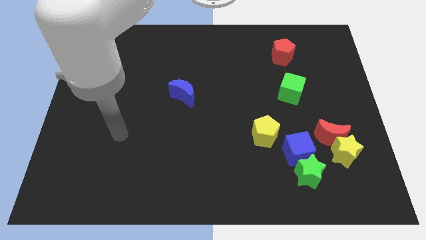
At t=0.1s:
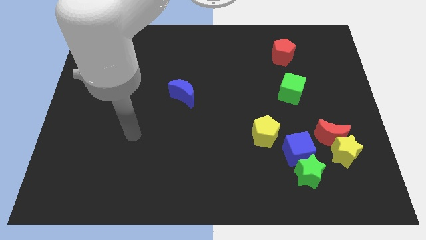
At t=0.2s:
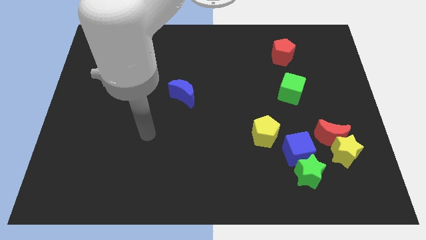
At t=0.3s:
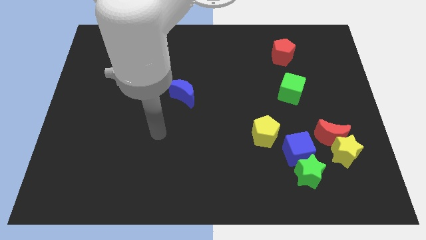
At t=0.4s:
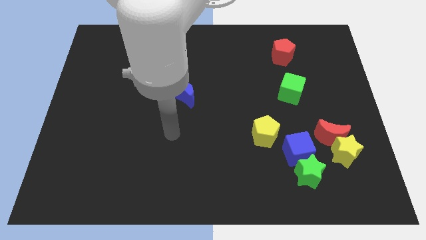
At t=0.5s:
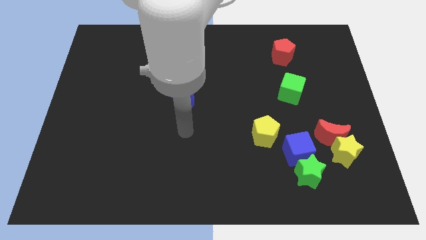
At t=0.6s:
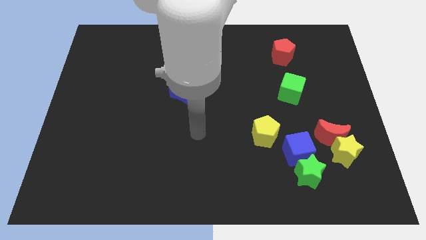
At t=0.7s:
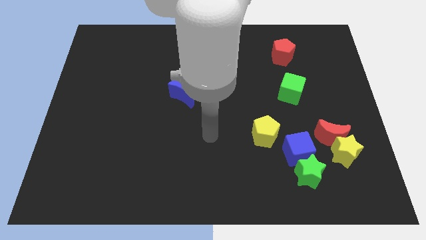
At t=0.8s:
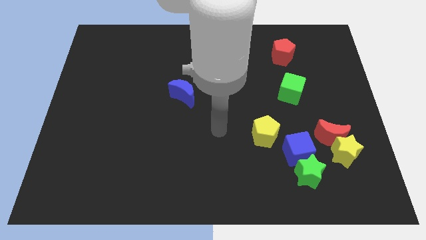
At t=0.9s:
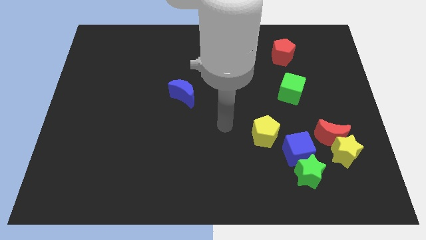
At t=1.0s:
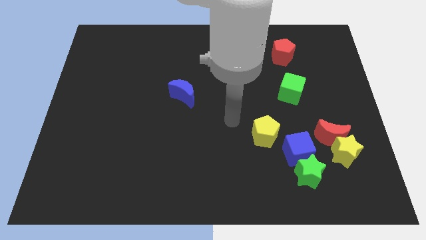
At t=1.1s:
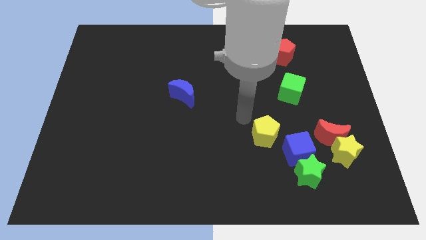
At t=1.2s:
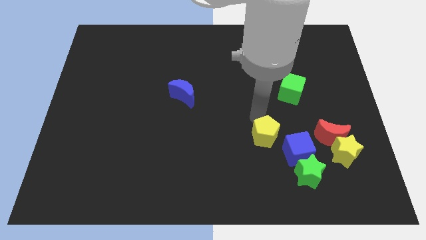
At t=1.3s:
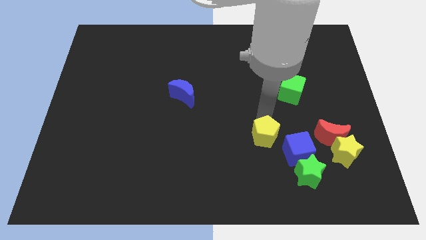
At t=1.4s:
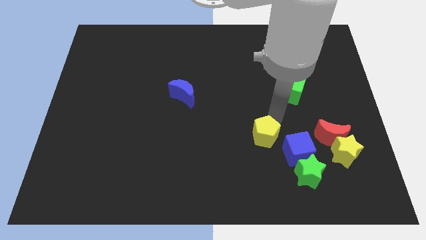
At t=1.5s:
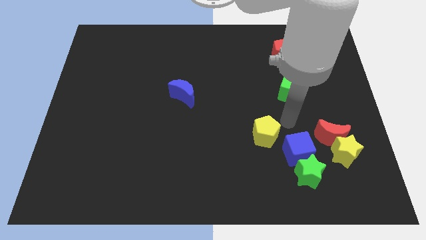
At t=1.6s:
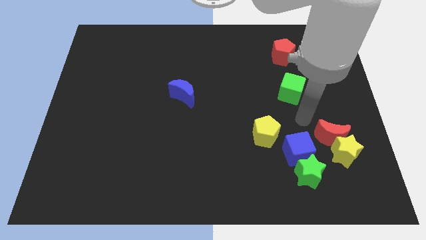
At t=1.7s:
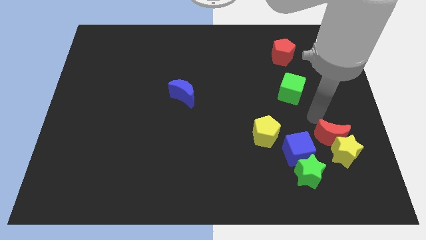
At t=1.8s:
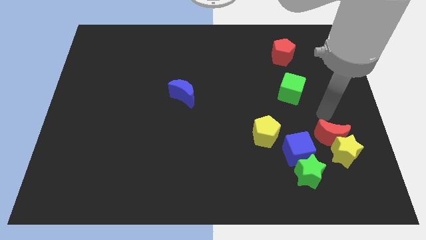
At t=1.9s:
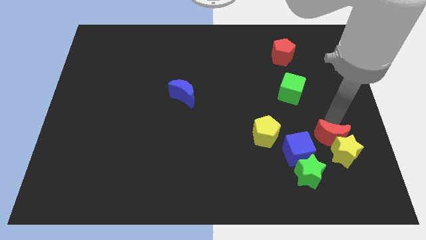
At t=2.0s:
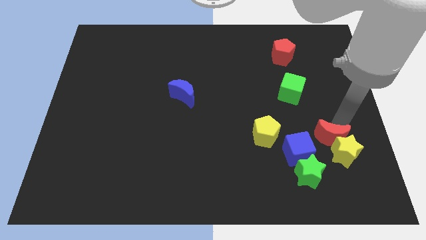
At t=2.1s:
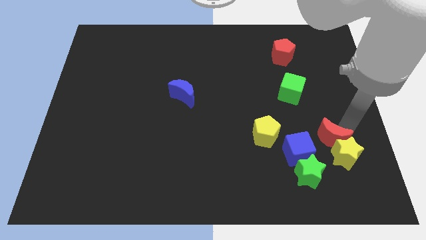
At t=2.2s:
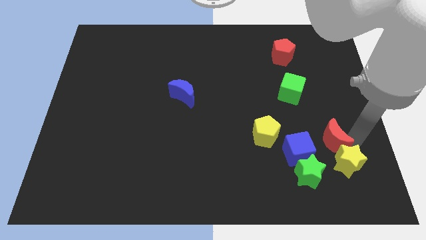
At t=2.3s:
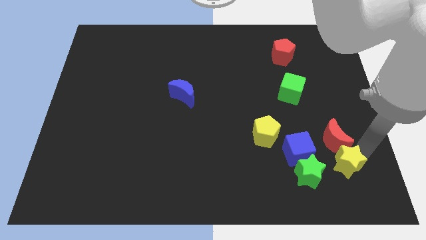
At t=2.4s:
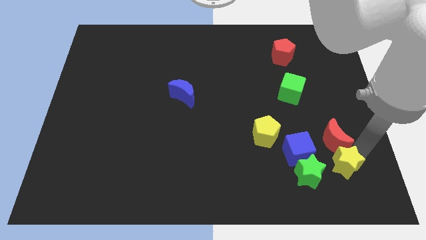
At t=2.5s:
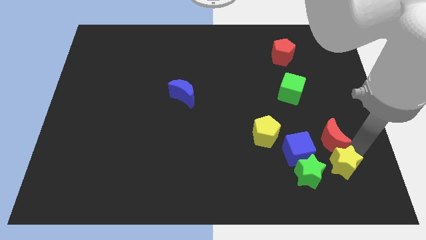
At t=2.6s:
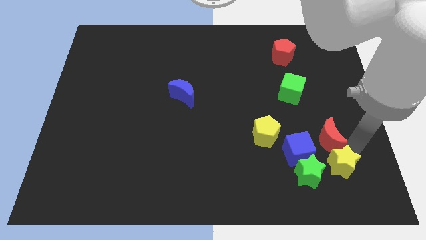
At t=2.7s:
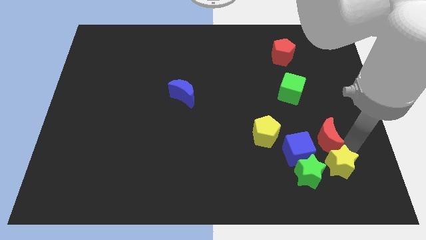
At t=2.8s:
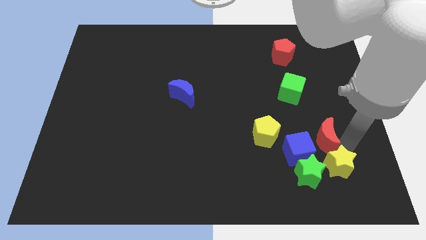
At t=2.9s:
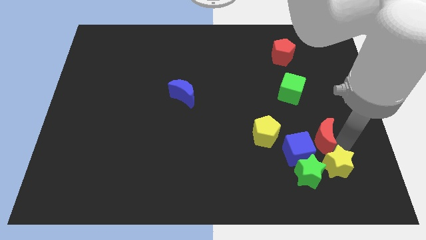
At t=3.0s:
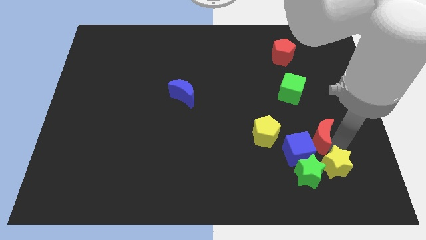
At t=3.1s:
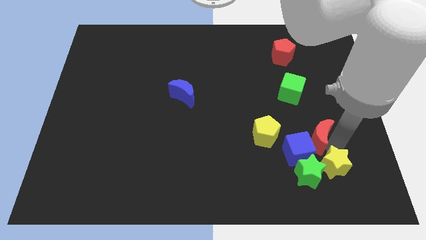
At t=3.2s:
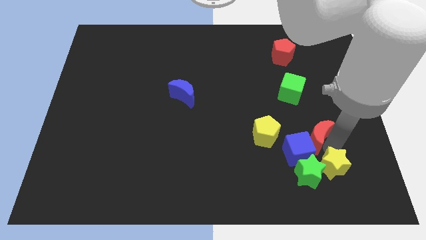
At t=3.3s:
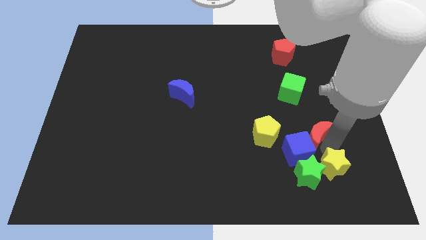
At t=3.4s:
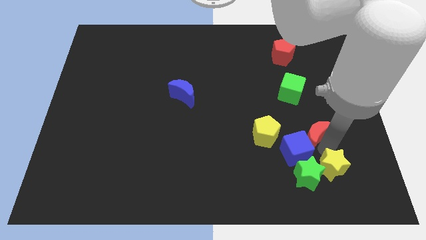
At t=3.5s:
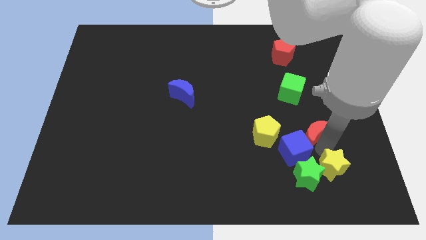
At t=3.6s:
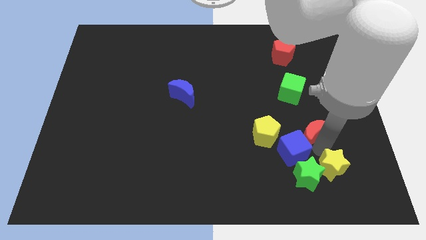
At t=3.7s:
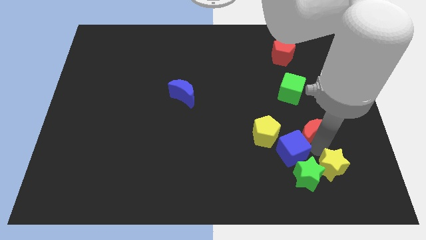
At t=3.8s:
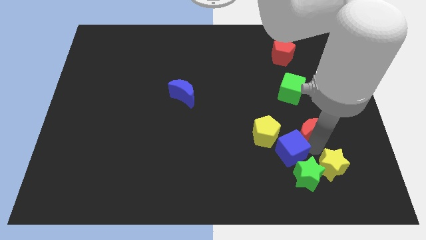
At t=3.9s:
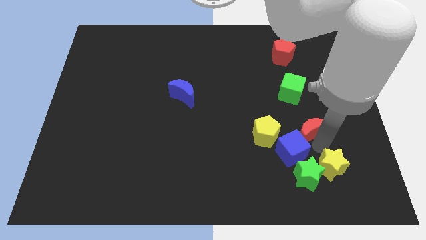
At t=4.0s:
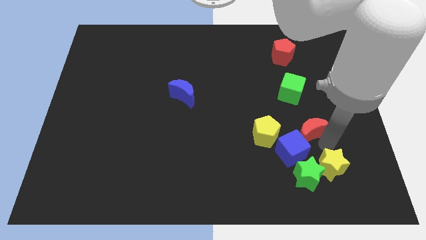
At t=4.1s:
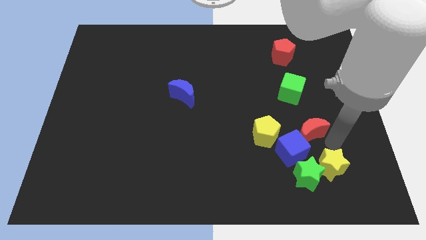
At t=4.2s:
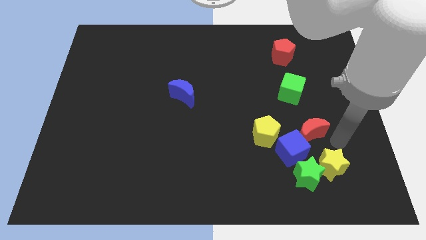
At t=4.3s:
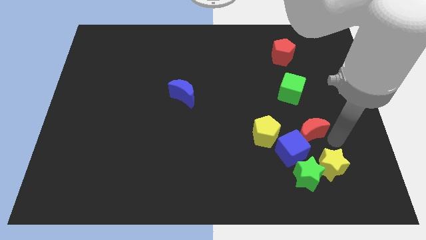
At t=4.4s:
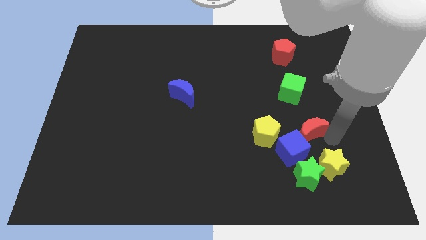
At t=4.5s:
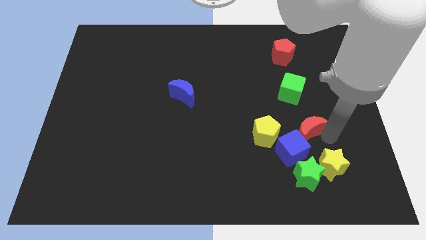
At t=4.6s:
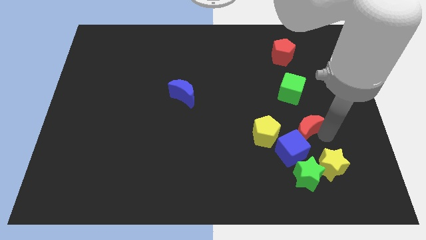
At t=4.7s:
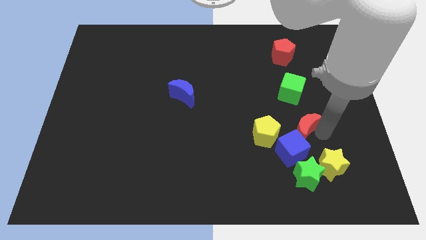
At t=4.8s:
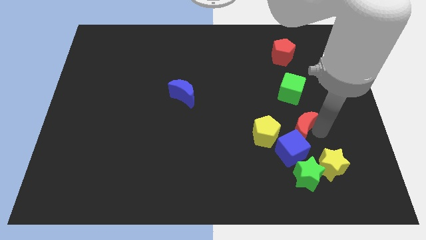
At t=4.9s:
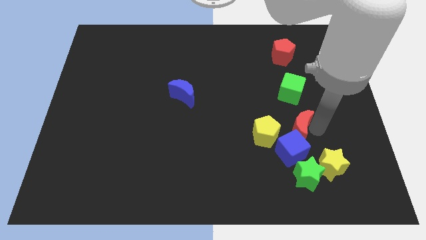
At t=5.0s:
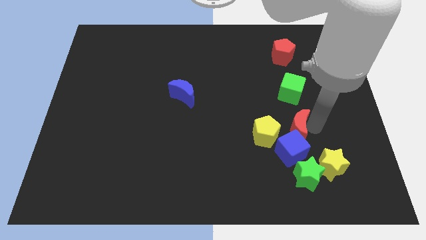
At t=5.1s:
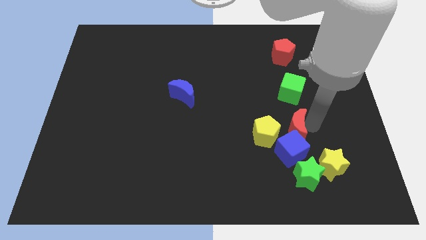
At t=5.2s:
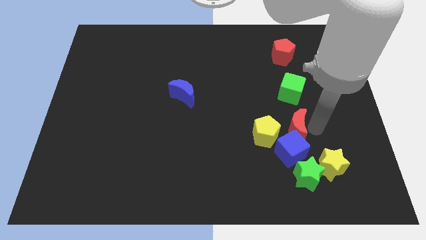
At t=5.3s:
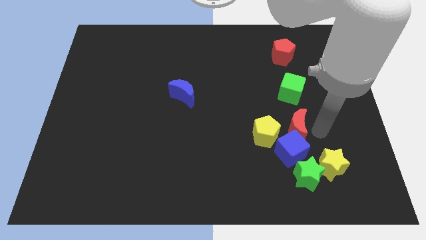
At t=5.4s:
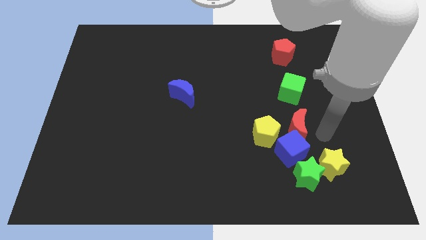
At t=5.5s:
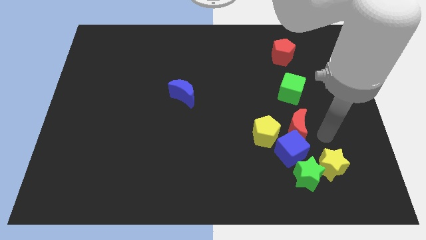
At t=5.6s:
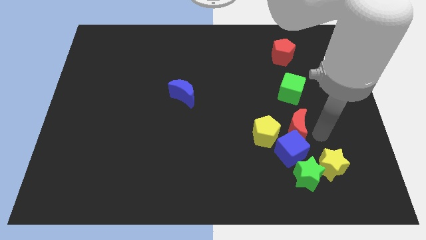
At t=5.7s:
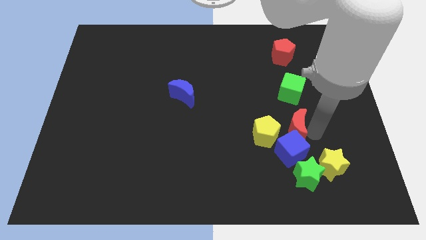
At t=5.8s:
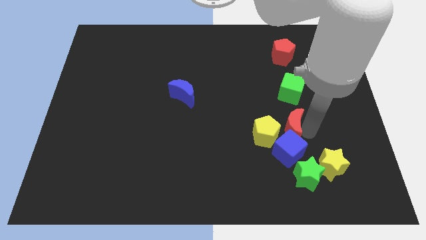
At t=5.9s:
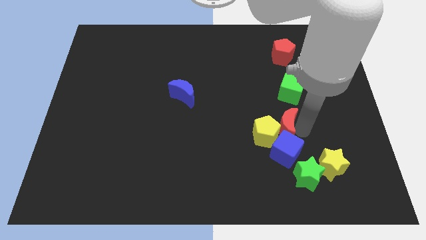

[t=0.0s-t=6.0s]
move the red moon close to the yellow pentagon
